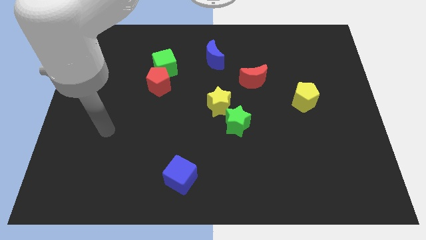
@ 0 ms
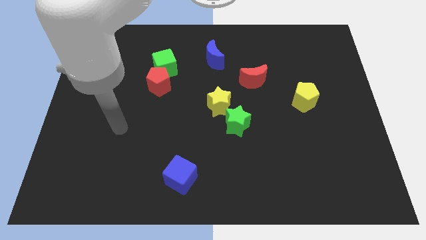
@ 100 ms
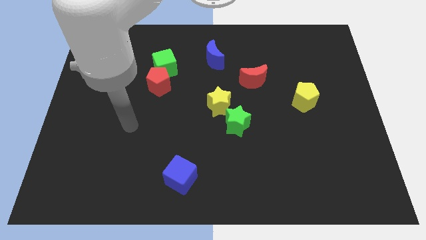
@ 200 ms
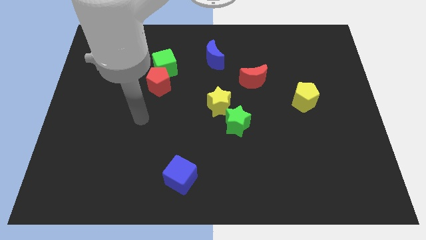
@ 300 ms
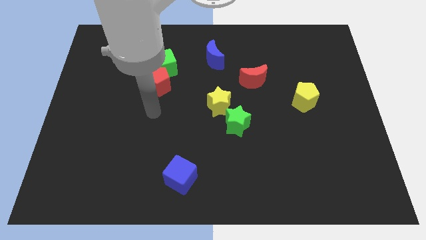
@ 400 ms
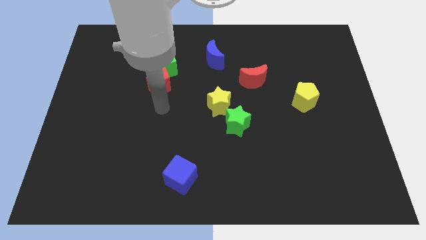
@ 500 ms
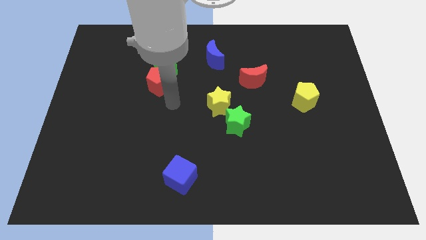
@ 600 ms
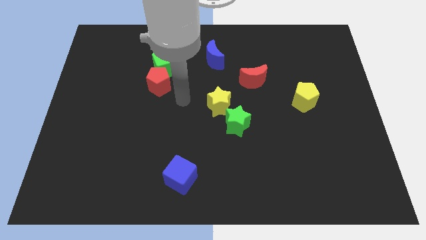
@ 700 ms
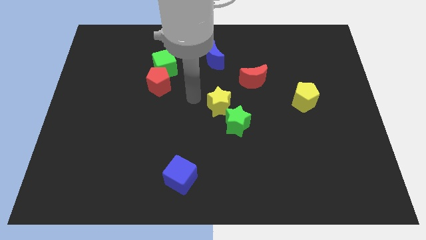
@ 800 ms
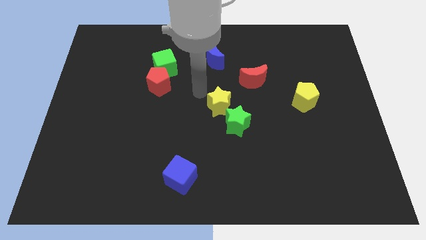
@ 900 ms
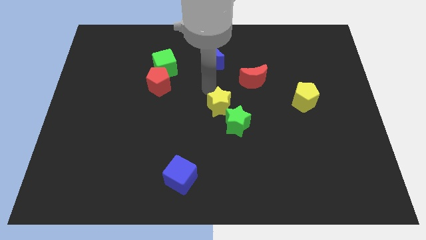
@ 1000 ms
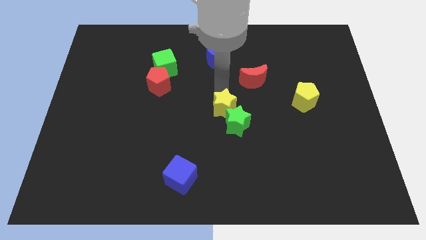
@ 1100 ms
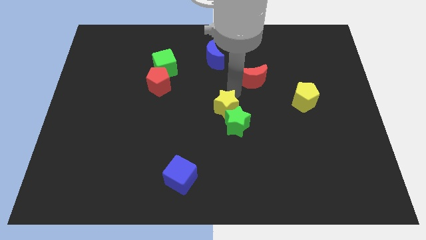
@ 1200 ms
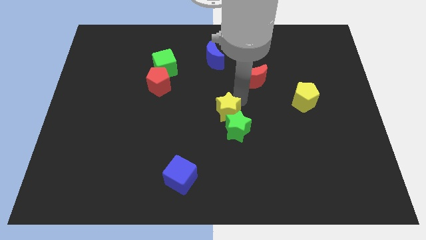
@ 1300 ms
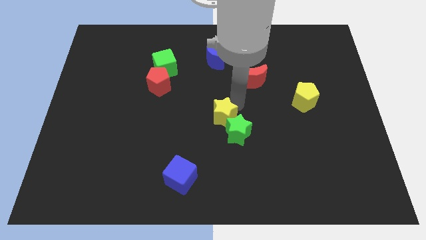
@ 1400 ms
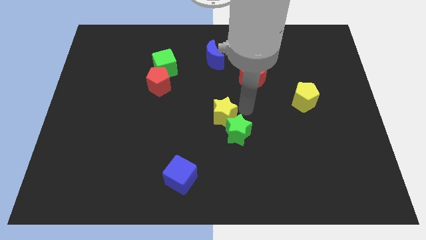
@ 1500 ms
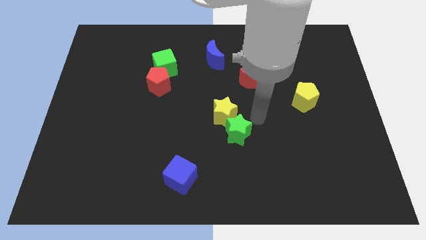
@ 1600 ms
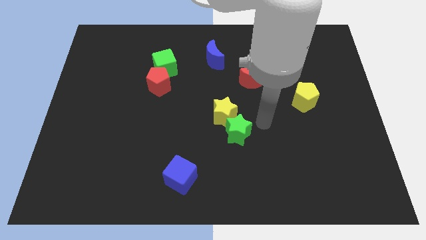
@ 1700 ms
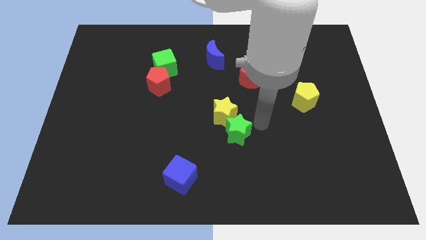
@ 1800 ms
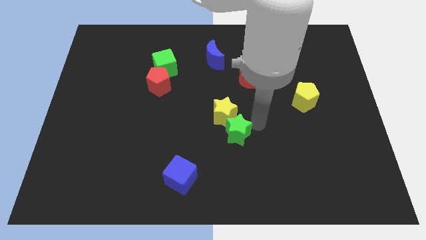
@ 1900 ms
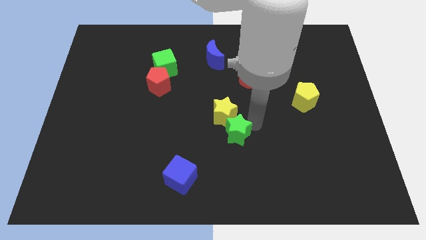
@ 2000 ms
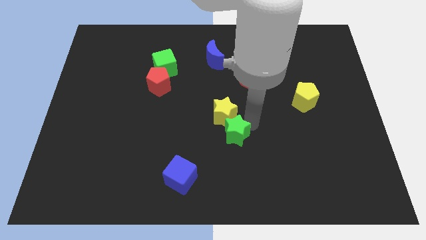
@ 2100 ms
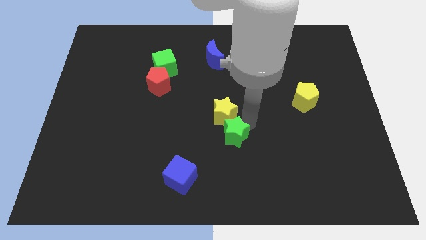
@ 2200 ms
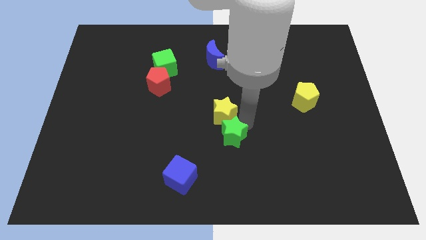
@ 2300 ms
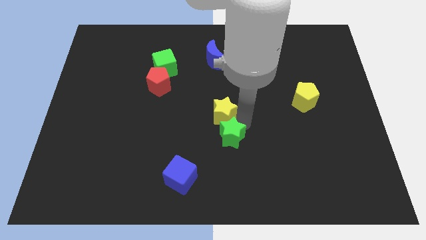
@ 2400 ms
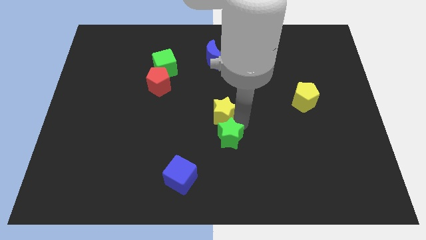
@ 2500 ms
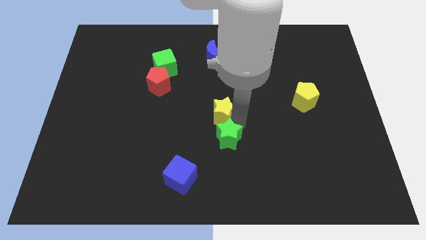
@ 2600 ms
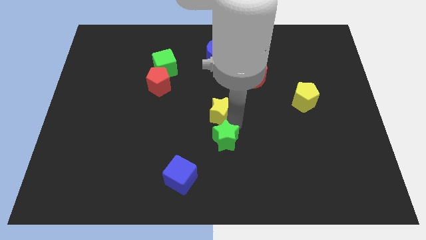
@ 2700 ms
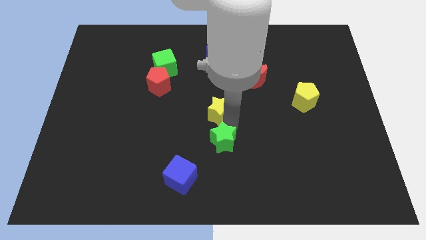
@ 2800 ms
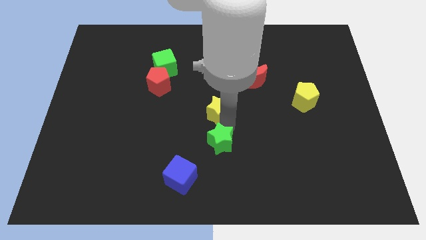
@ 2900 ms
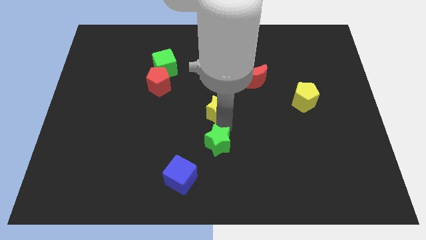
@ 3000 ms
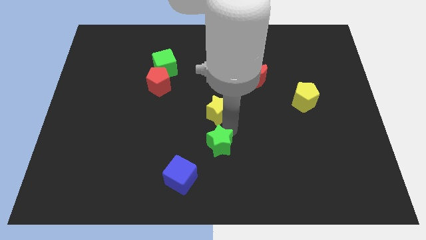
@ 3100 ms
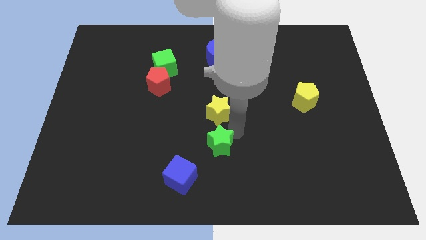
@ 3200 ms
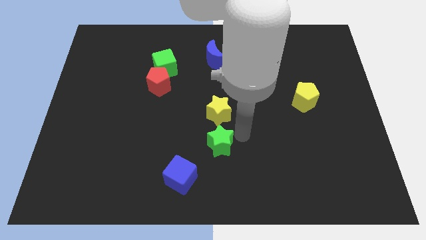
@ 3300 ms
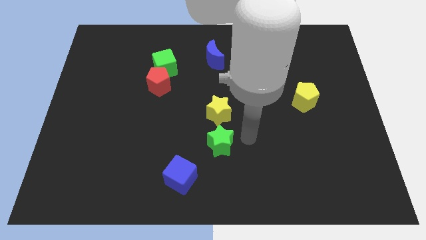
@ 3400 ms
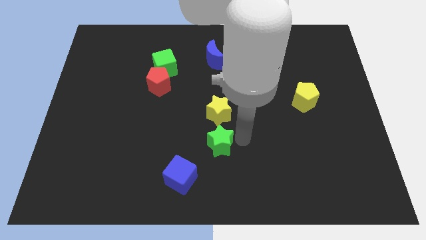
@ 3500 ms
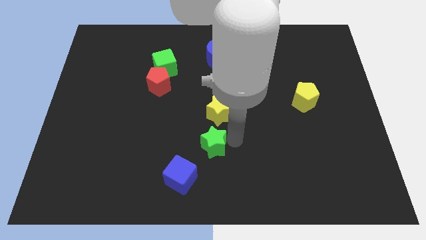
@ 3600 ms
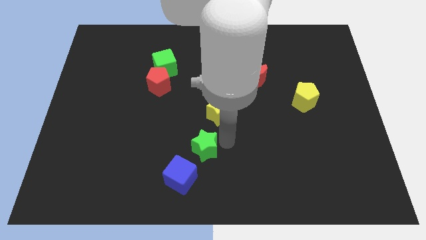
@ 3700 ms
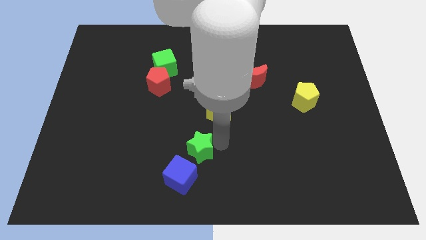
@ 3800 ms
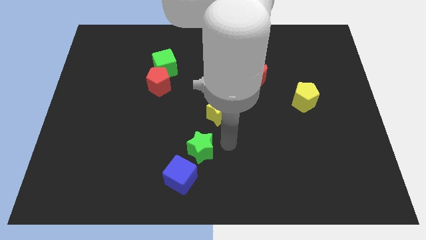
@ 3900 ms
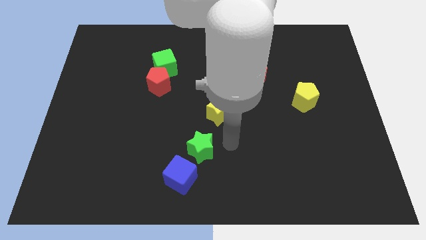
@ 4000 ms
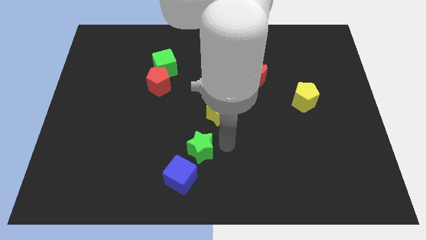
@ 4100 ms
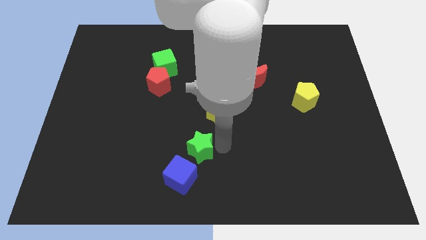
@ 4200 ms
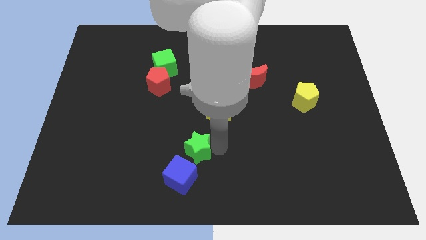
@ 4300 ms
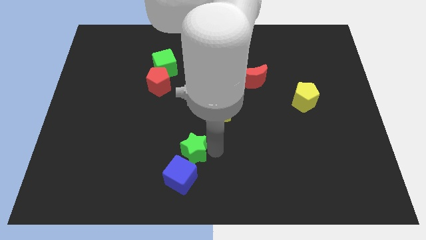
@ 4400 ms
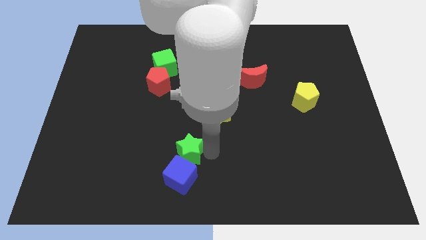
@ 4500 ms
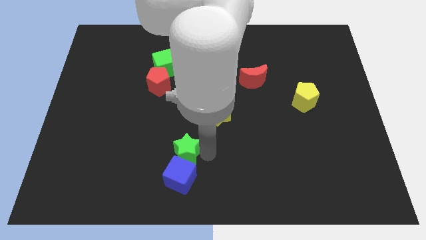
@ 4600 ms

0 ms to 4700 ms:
slide the green star to the top left of the blue cube

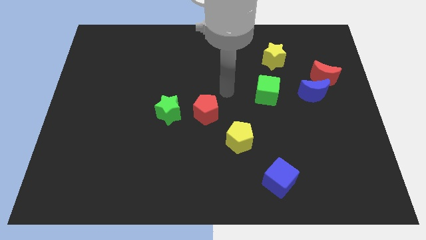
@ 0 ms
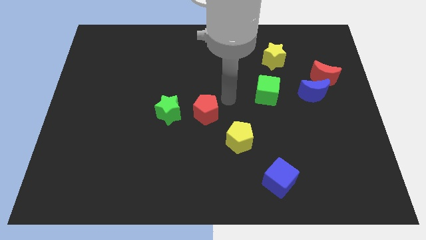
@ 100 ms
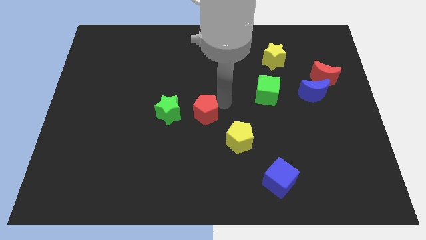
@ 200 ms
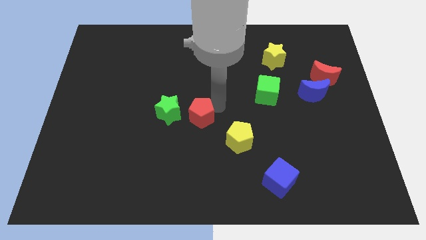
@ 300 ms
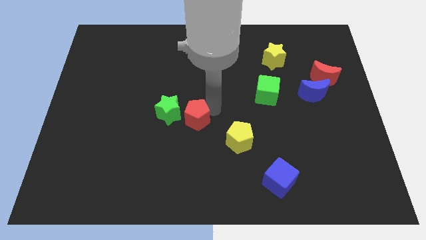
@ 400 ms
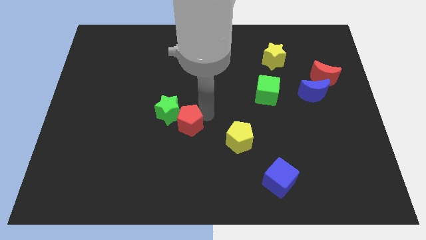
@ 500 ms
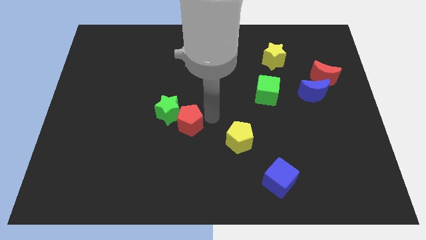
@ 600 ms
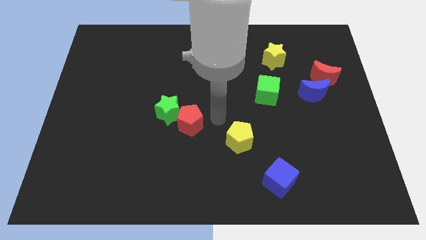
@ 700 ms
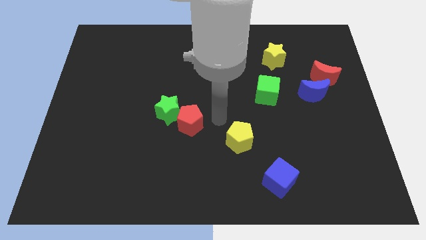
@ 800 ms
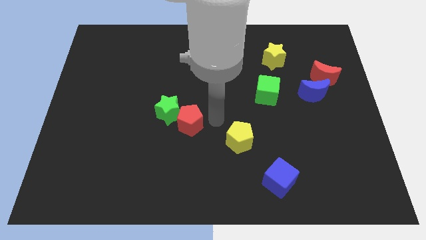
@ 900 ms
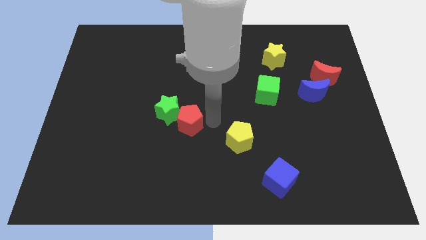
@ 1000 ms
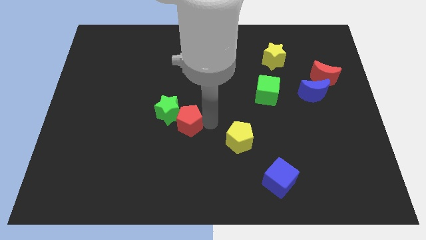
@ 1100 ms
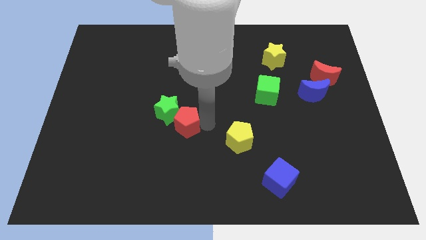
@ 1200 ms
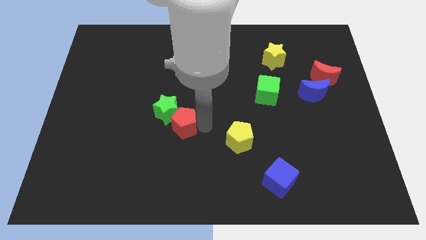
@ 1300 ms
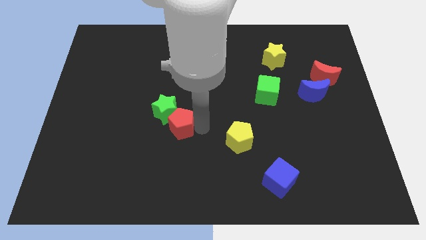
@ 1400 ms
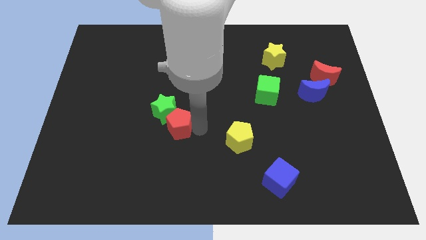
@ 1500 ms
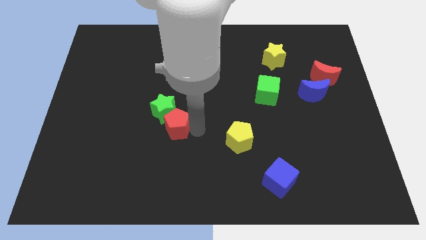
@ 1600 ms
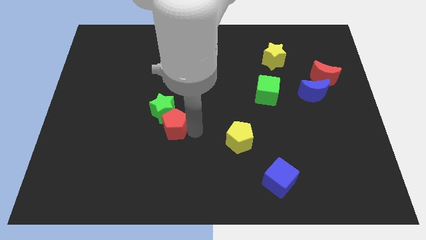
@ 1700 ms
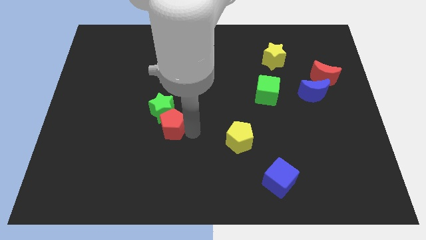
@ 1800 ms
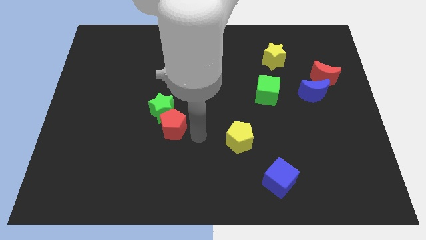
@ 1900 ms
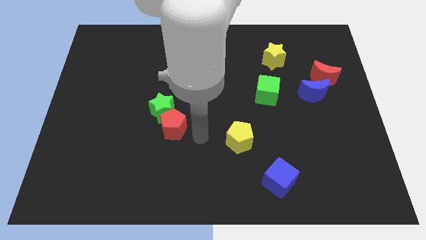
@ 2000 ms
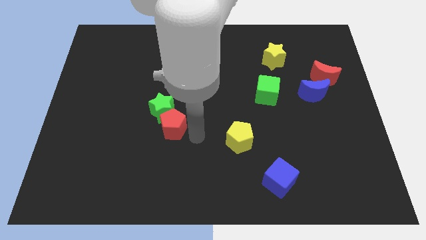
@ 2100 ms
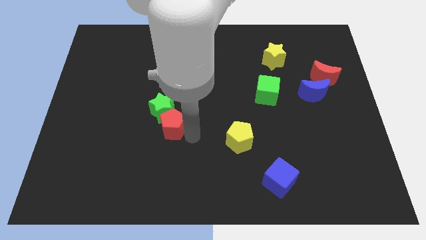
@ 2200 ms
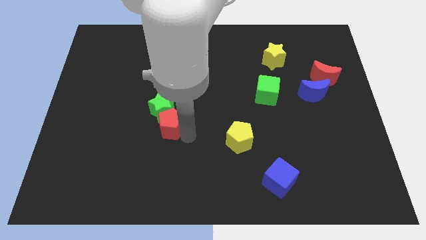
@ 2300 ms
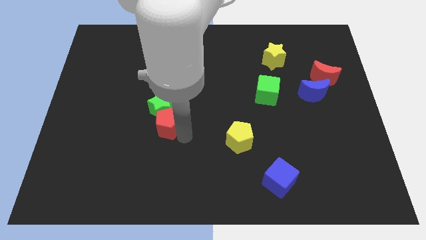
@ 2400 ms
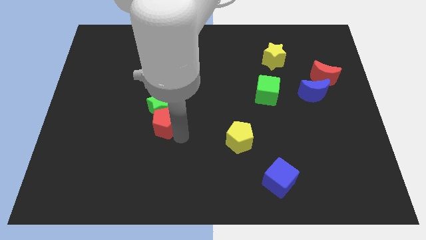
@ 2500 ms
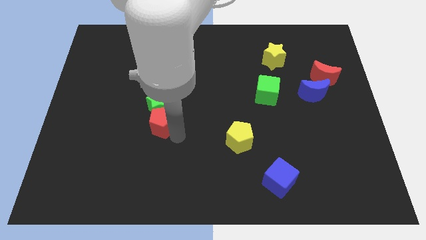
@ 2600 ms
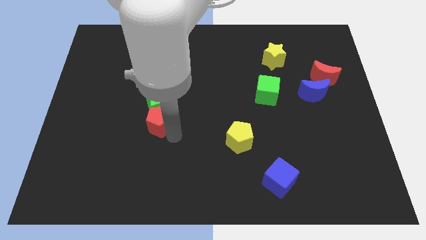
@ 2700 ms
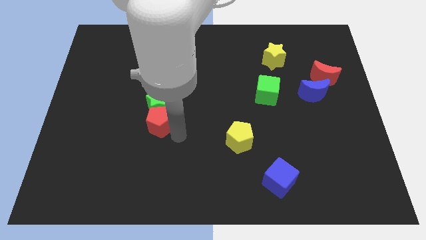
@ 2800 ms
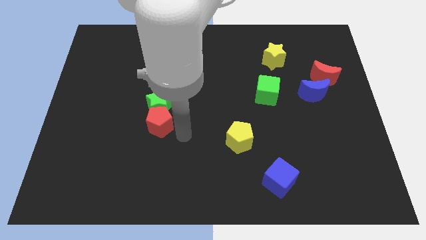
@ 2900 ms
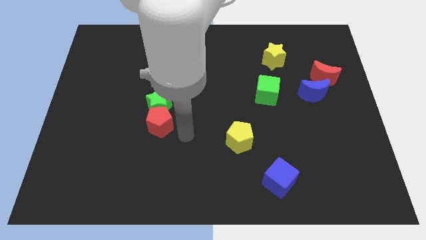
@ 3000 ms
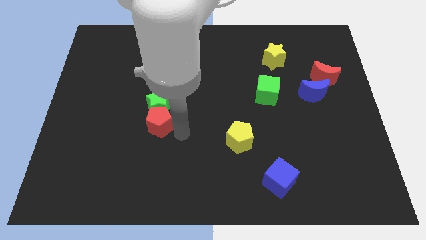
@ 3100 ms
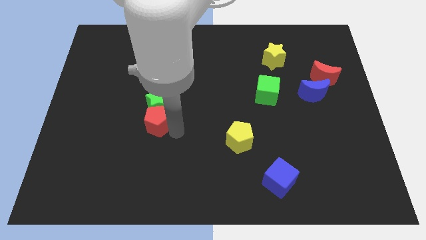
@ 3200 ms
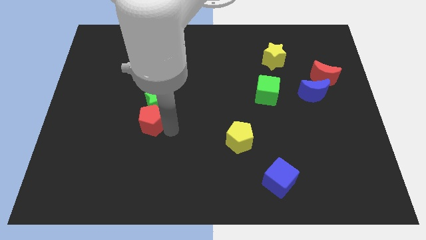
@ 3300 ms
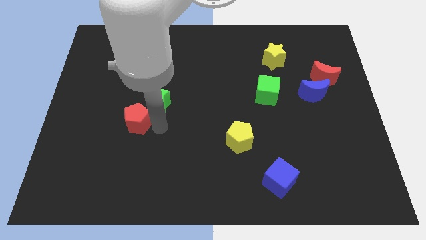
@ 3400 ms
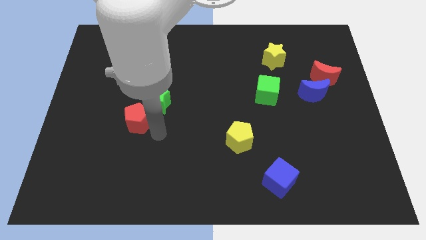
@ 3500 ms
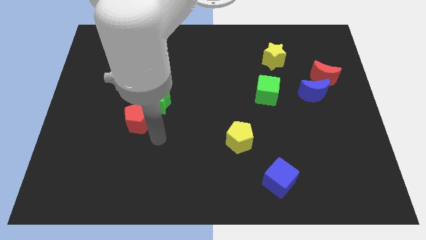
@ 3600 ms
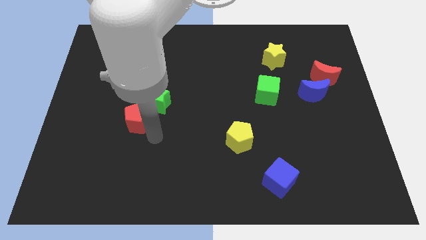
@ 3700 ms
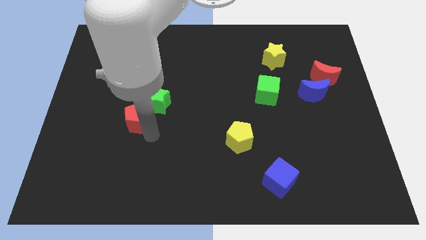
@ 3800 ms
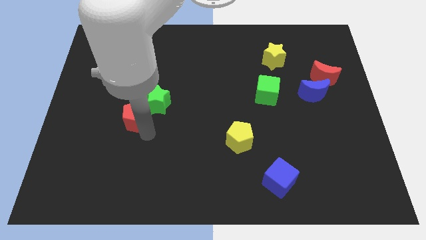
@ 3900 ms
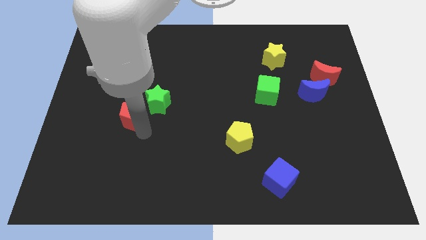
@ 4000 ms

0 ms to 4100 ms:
move the red pentagon left of the green star
